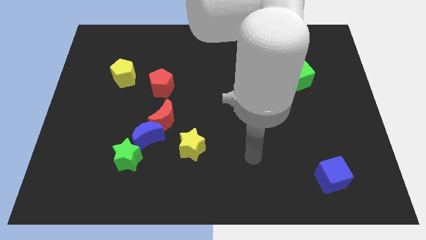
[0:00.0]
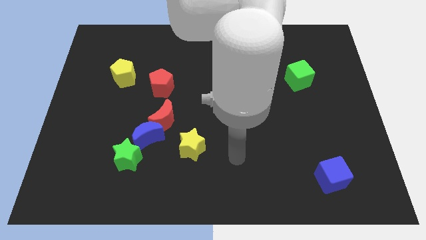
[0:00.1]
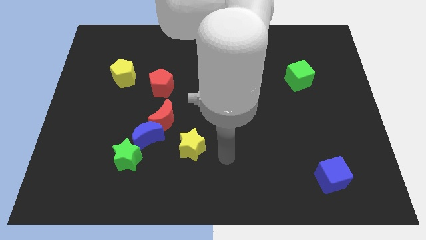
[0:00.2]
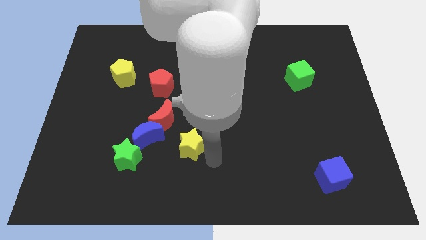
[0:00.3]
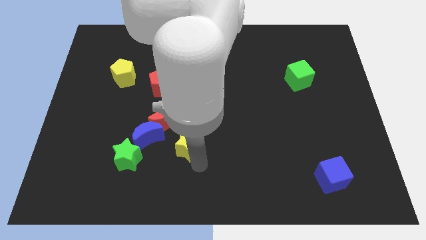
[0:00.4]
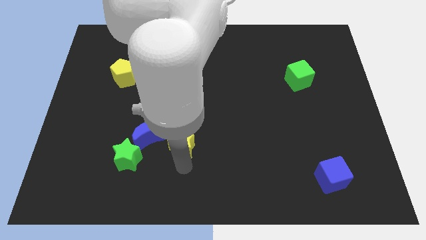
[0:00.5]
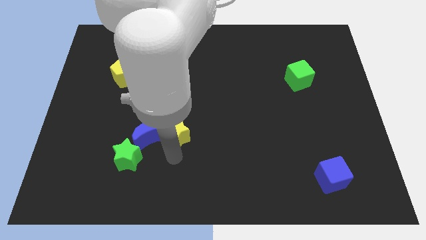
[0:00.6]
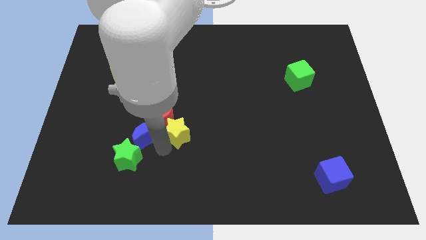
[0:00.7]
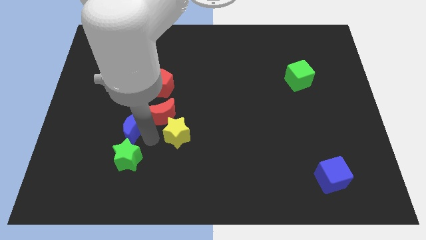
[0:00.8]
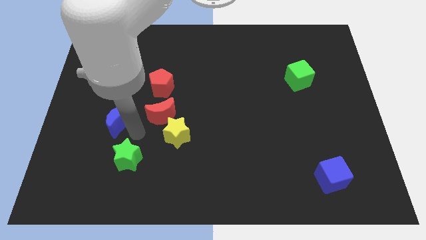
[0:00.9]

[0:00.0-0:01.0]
move the green star away from the blue moon

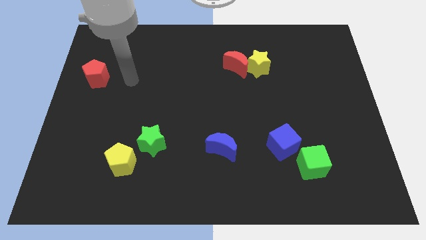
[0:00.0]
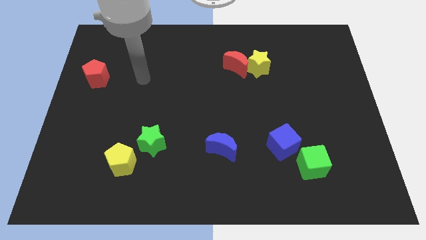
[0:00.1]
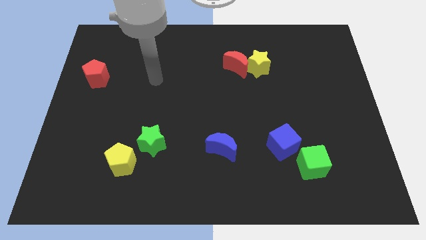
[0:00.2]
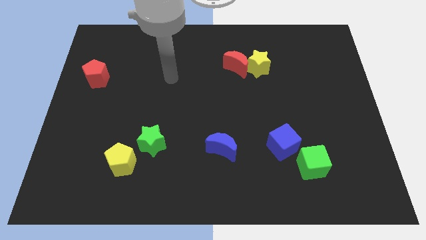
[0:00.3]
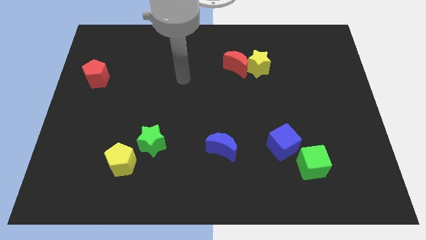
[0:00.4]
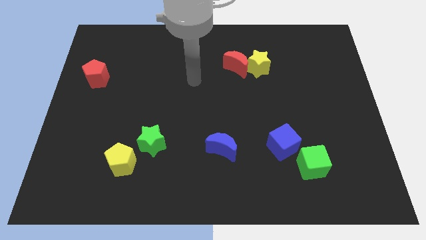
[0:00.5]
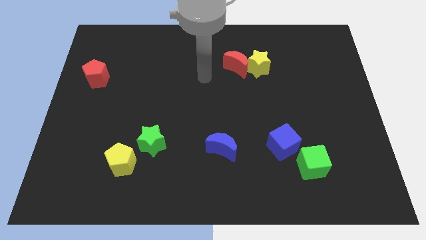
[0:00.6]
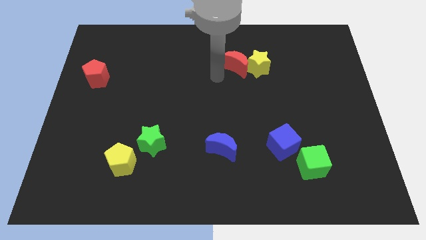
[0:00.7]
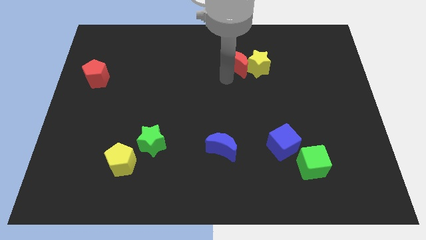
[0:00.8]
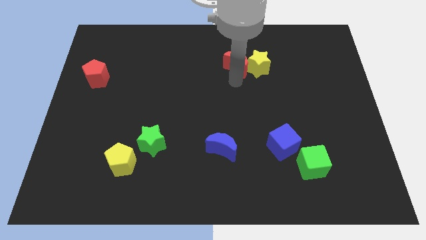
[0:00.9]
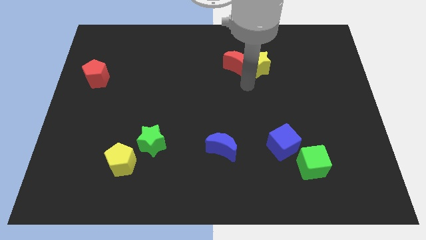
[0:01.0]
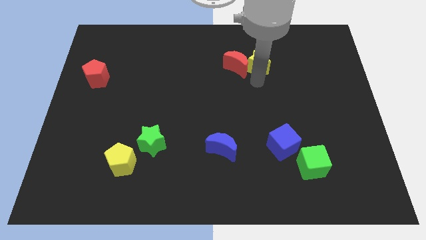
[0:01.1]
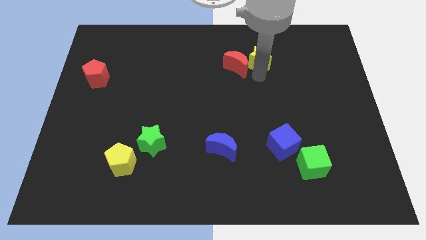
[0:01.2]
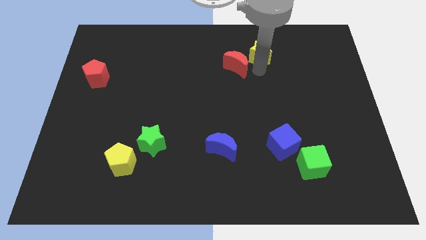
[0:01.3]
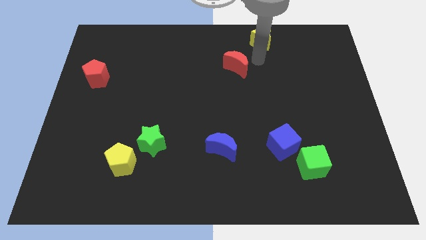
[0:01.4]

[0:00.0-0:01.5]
pull the red moon apart from the yellow star

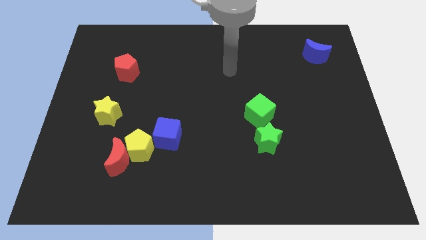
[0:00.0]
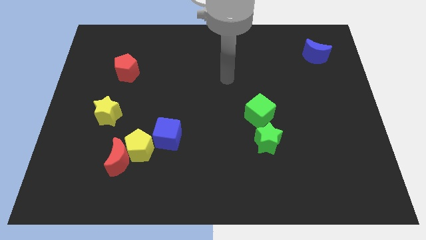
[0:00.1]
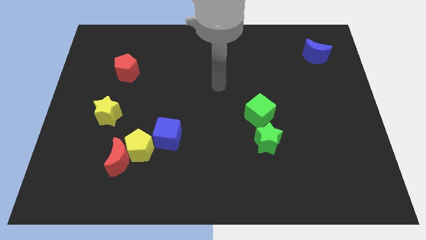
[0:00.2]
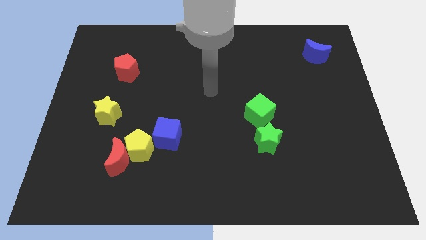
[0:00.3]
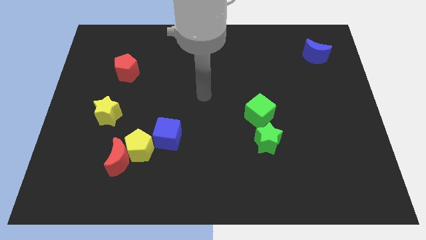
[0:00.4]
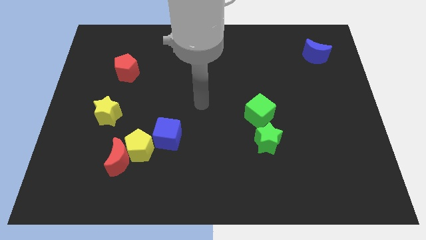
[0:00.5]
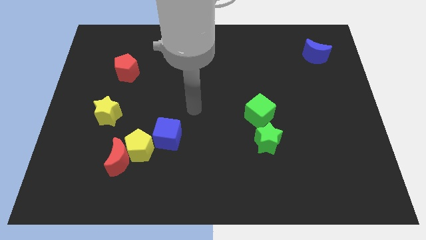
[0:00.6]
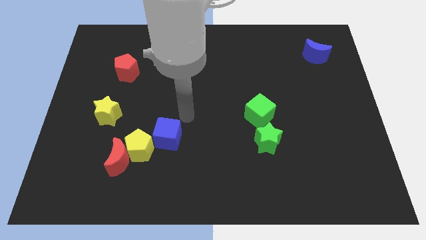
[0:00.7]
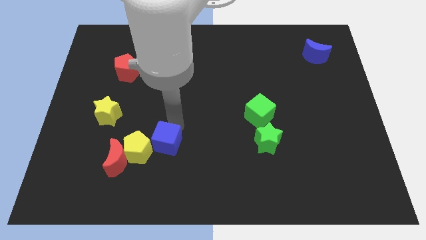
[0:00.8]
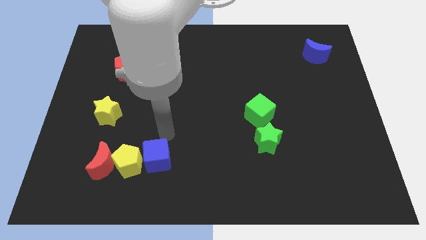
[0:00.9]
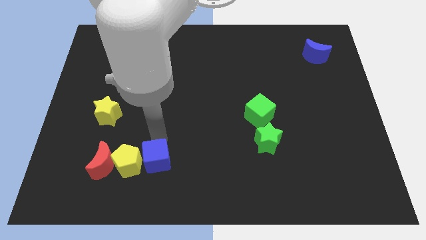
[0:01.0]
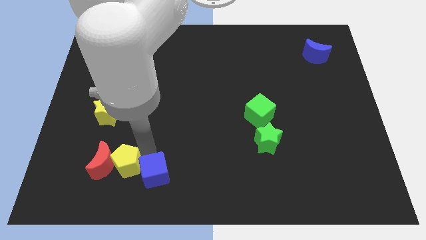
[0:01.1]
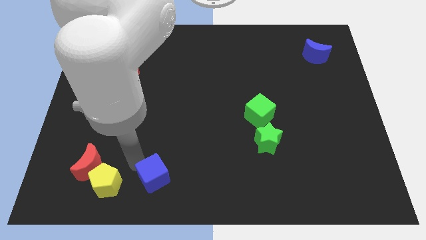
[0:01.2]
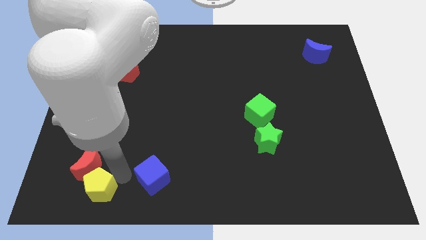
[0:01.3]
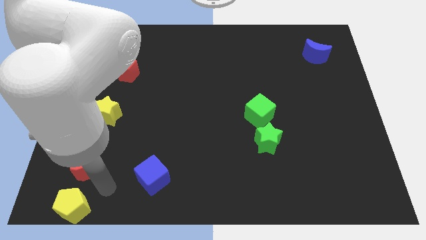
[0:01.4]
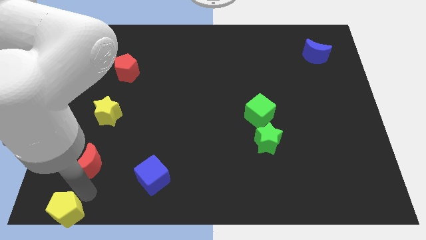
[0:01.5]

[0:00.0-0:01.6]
separate the red moon from the yellow pentagon

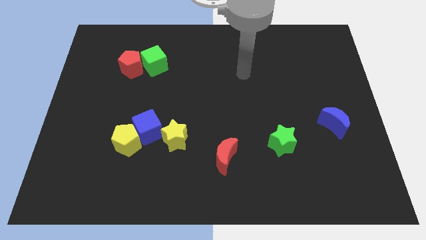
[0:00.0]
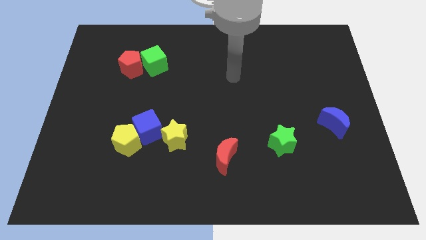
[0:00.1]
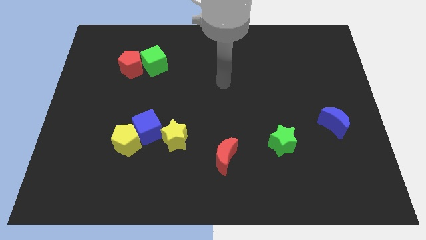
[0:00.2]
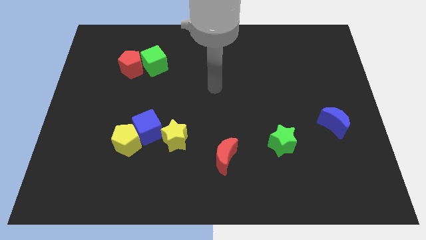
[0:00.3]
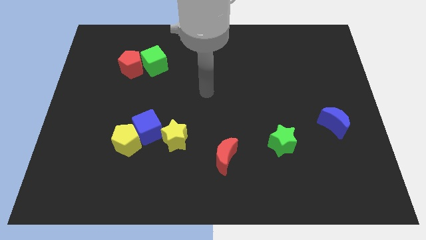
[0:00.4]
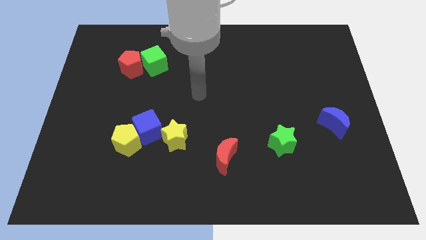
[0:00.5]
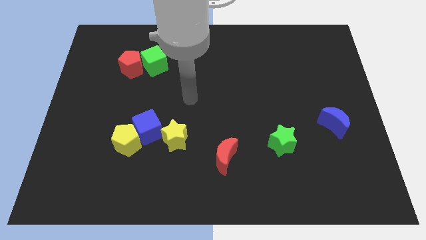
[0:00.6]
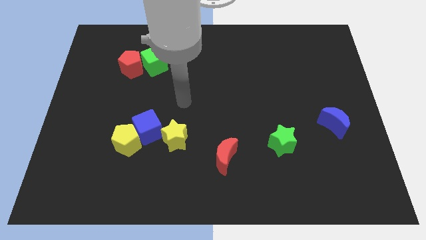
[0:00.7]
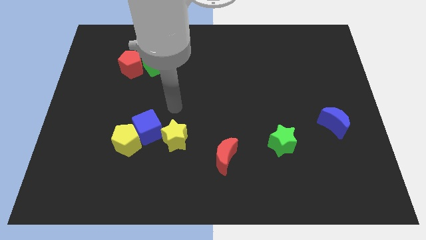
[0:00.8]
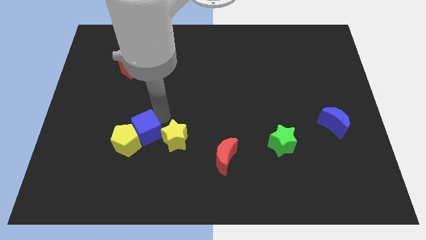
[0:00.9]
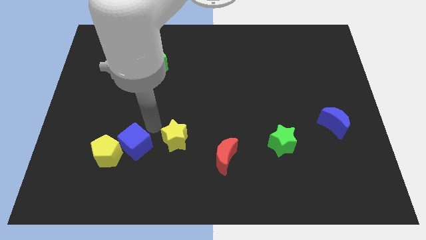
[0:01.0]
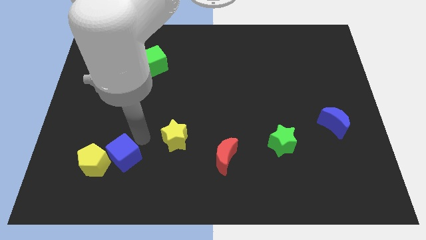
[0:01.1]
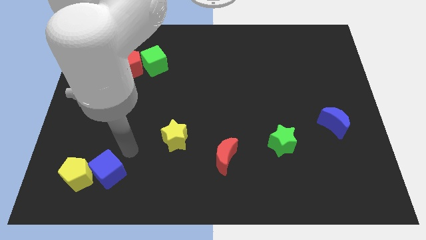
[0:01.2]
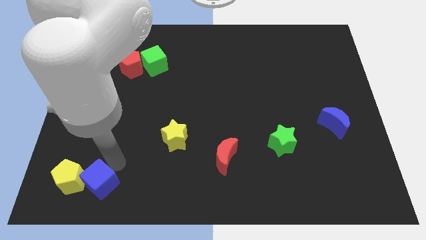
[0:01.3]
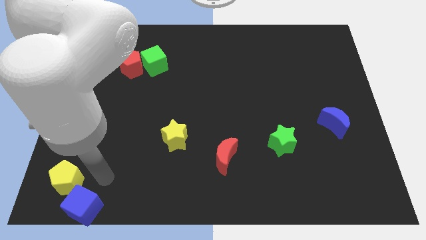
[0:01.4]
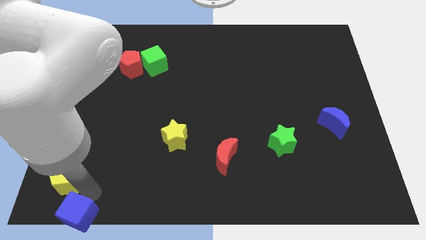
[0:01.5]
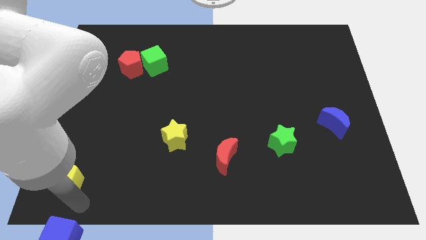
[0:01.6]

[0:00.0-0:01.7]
pull the yellow pentagon apart from the blue cube

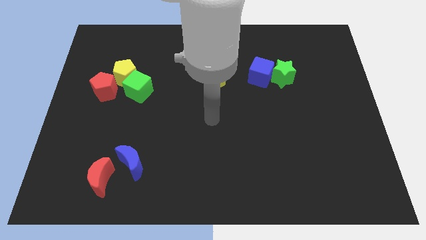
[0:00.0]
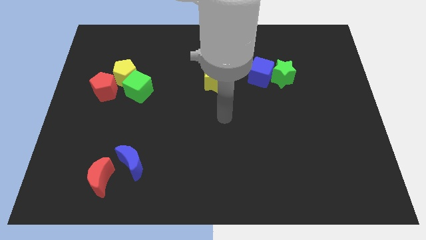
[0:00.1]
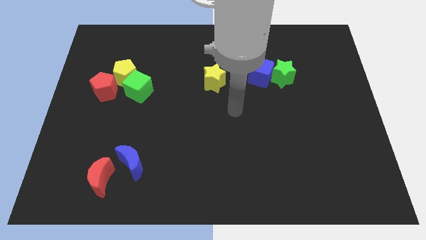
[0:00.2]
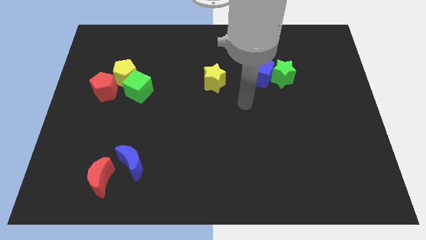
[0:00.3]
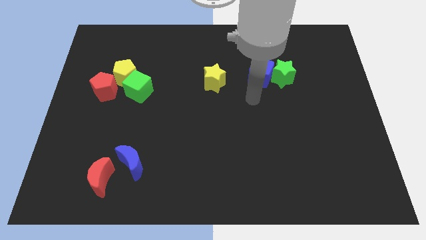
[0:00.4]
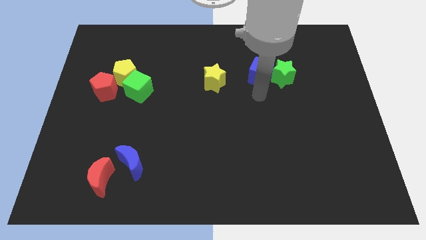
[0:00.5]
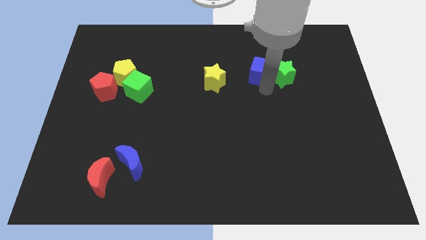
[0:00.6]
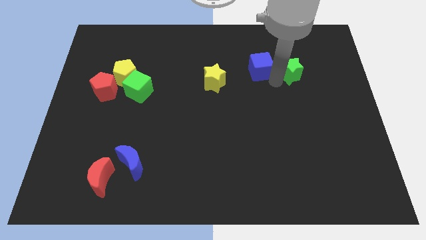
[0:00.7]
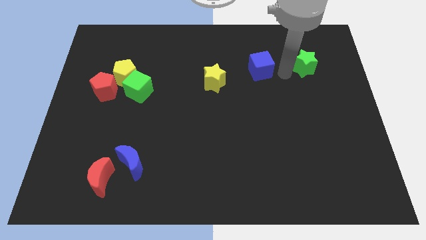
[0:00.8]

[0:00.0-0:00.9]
pull the blue cube apart from the green star

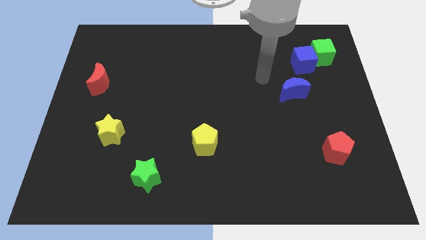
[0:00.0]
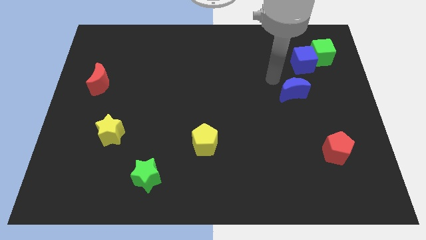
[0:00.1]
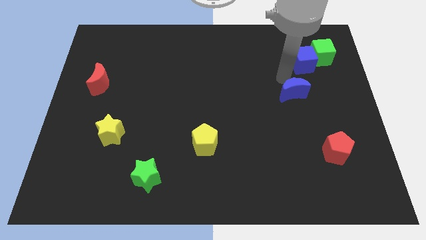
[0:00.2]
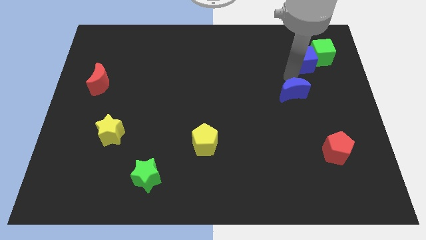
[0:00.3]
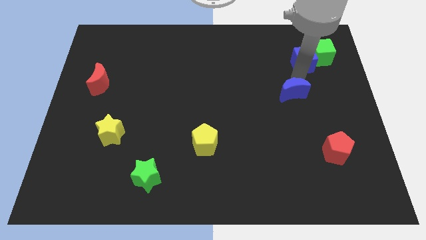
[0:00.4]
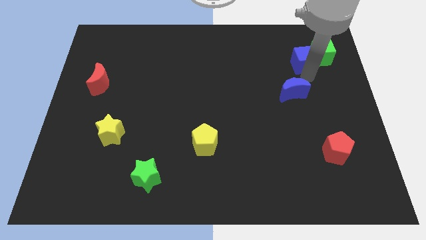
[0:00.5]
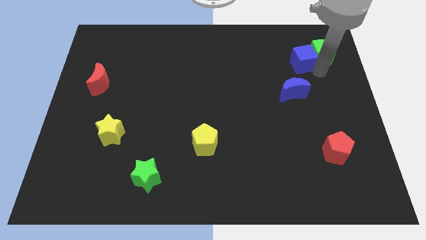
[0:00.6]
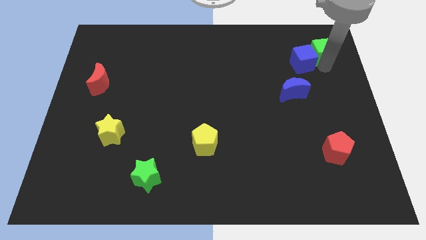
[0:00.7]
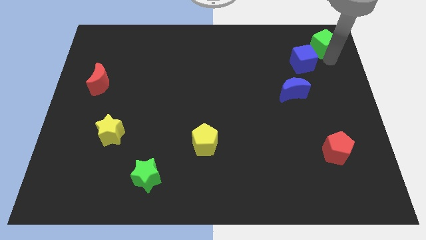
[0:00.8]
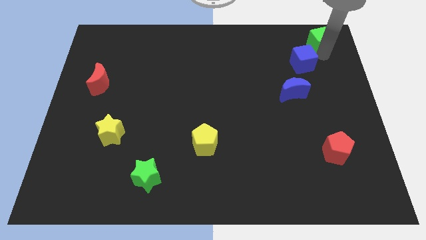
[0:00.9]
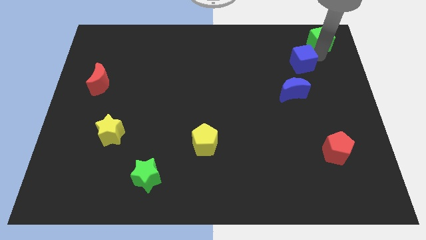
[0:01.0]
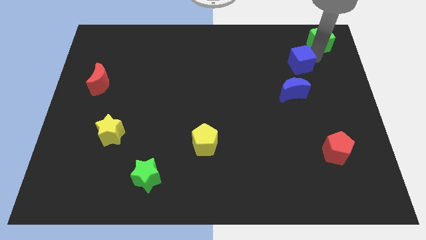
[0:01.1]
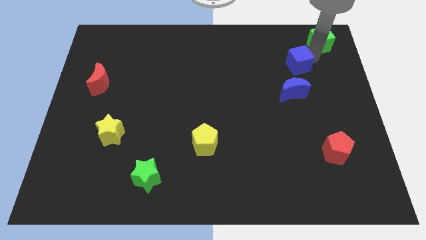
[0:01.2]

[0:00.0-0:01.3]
pull the blue cube apart from the green cube

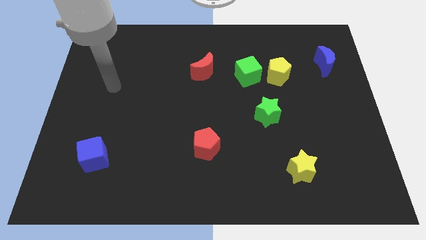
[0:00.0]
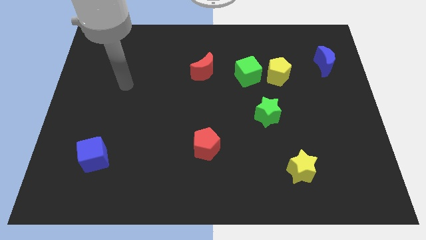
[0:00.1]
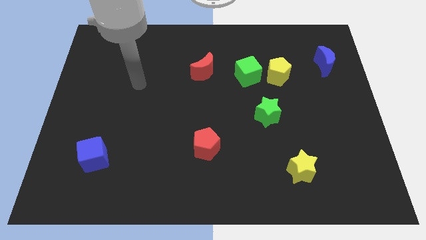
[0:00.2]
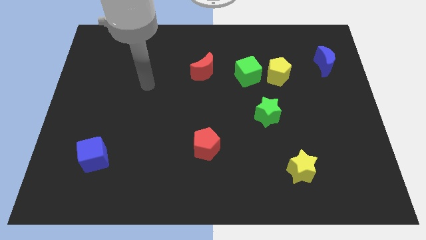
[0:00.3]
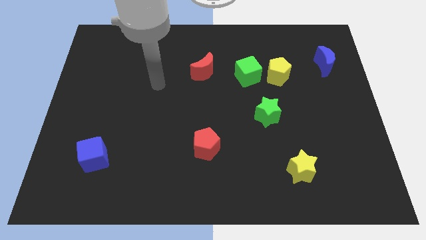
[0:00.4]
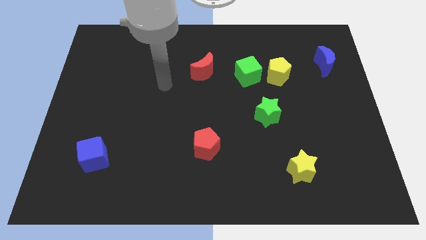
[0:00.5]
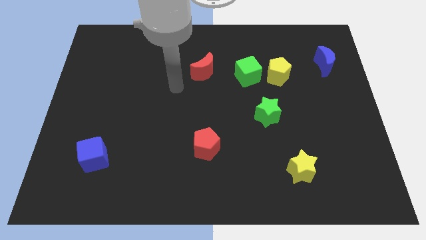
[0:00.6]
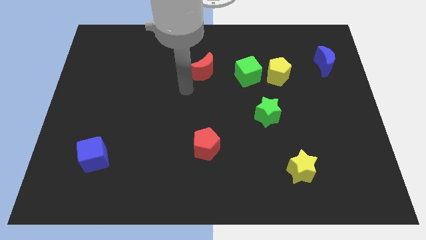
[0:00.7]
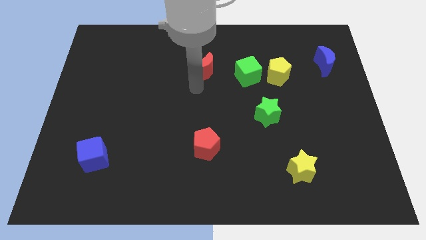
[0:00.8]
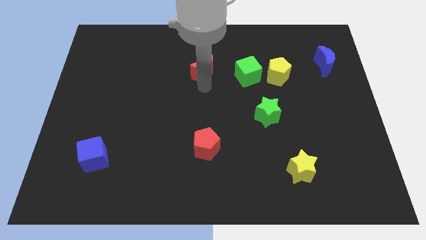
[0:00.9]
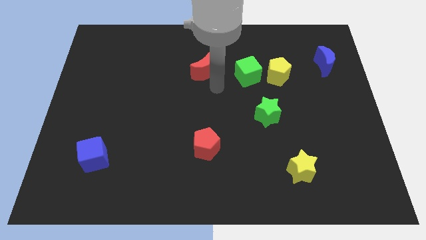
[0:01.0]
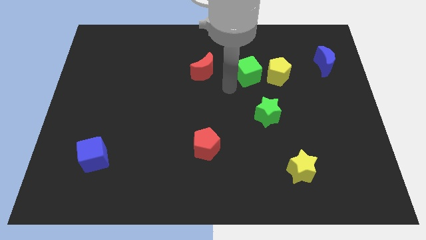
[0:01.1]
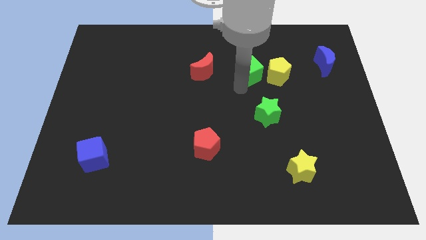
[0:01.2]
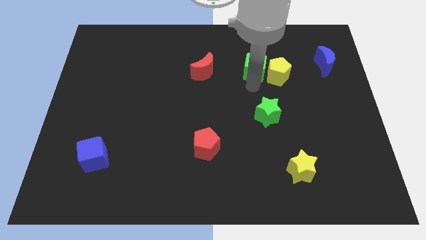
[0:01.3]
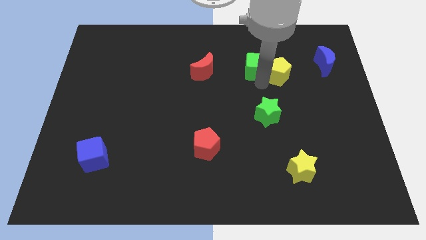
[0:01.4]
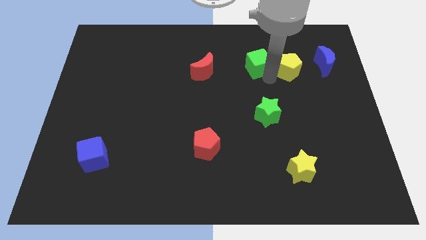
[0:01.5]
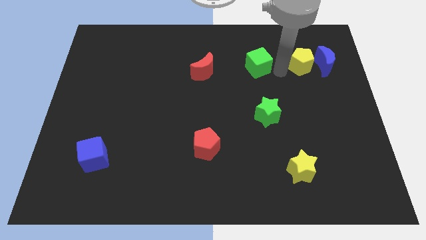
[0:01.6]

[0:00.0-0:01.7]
move the green cube away from the yellow pentagon
